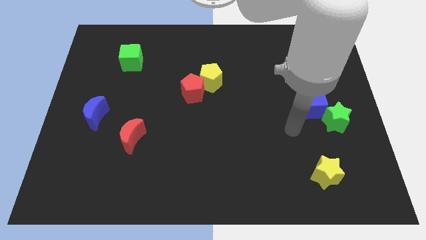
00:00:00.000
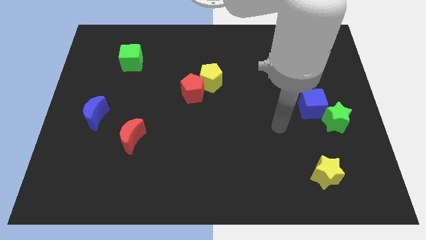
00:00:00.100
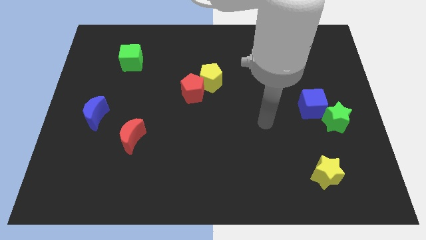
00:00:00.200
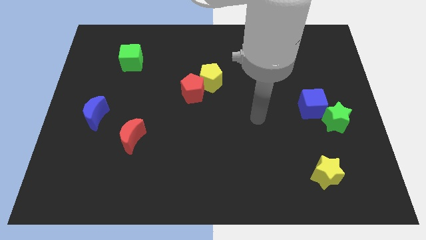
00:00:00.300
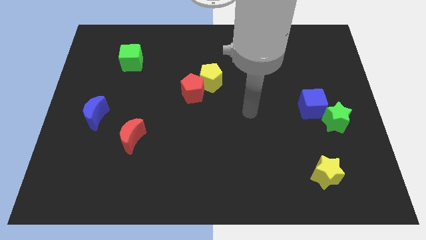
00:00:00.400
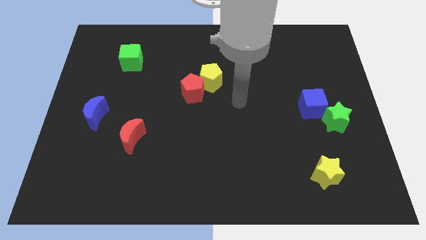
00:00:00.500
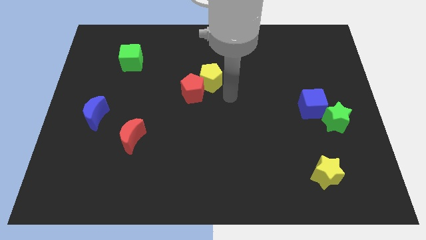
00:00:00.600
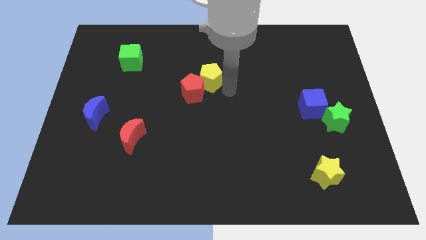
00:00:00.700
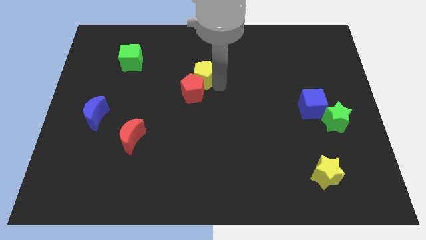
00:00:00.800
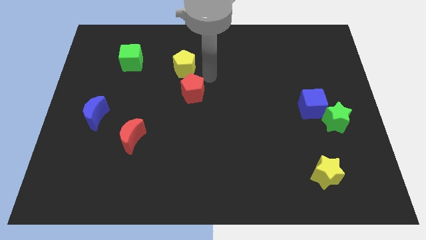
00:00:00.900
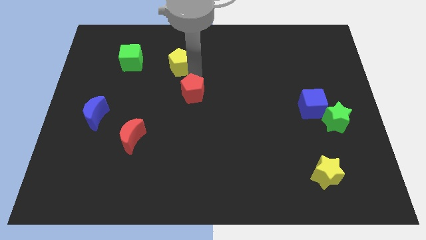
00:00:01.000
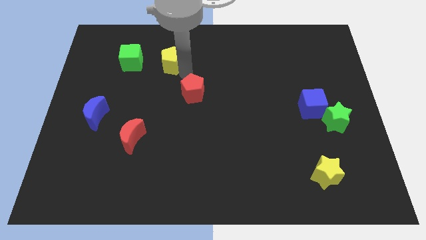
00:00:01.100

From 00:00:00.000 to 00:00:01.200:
separate the red pentagon from the yellow pentagon

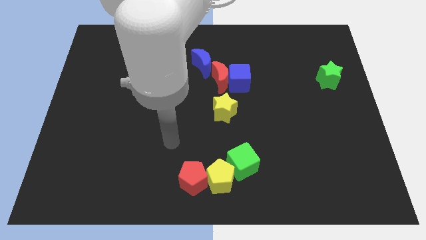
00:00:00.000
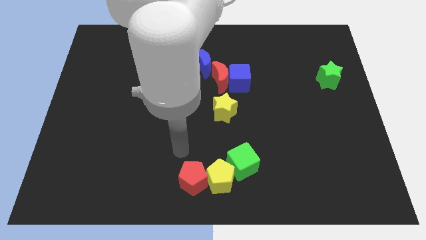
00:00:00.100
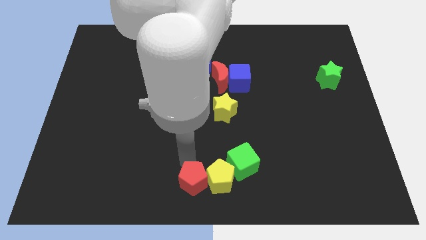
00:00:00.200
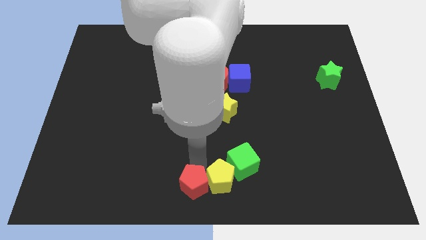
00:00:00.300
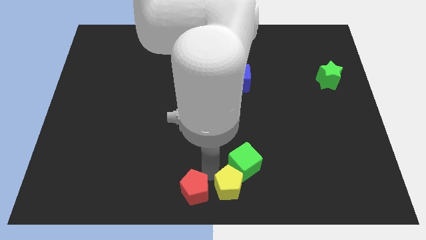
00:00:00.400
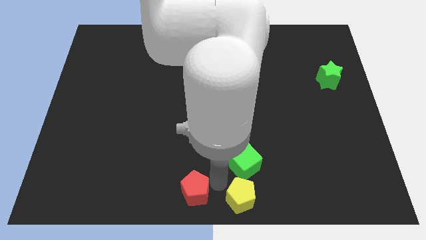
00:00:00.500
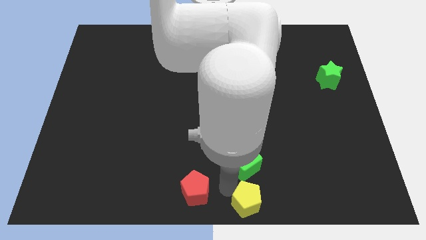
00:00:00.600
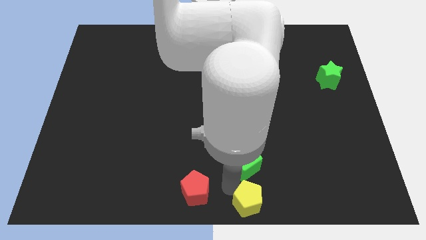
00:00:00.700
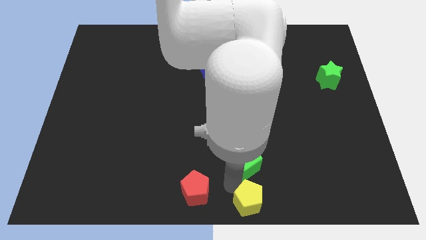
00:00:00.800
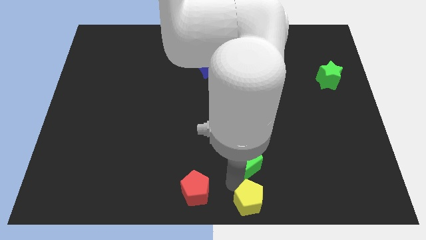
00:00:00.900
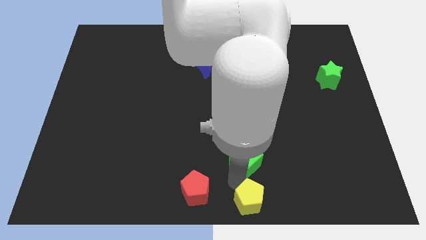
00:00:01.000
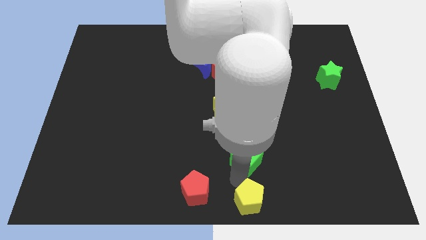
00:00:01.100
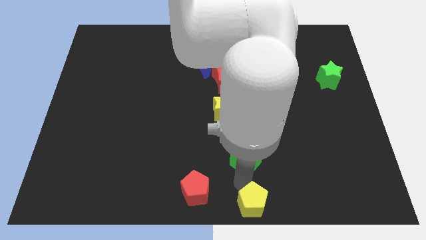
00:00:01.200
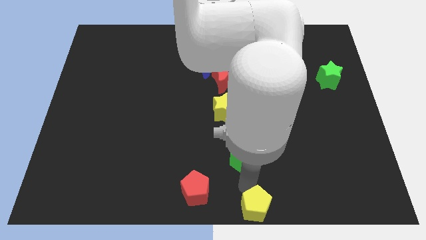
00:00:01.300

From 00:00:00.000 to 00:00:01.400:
pull the green cube apart from the yellow pentagon

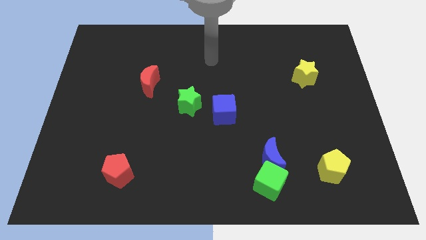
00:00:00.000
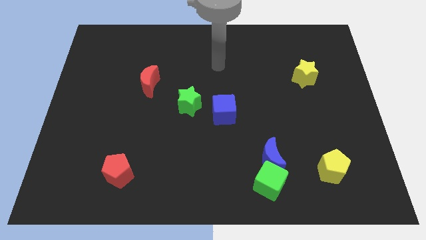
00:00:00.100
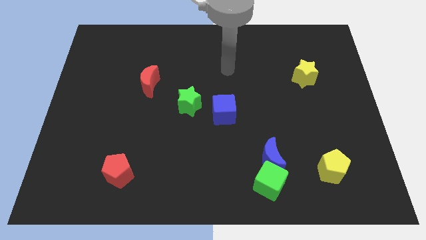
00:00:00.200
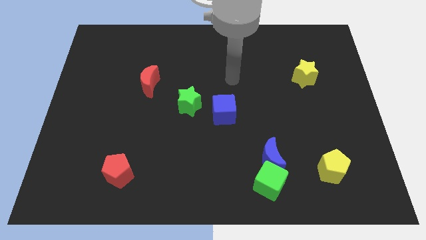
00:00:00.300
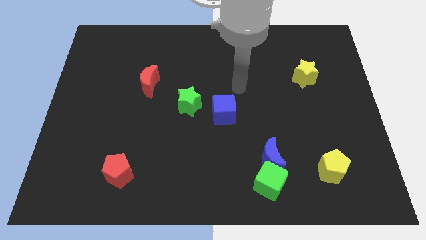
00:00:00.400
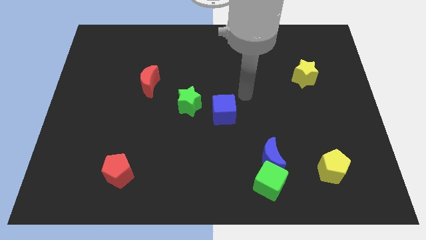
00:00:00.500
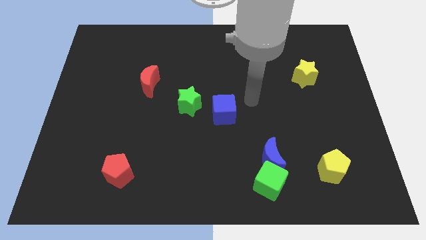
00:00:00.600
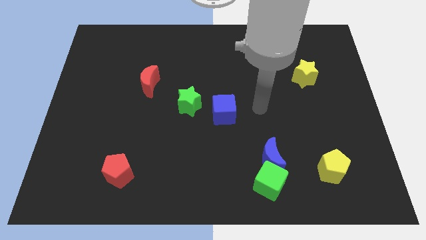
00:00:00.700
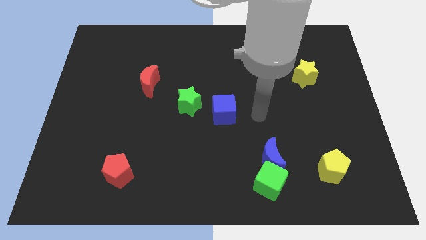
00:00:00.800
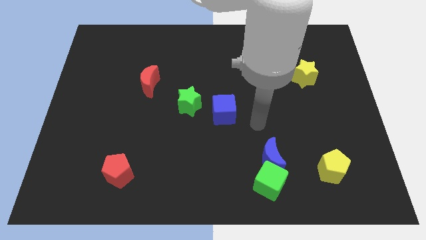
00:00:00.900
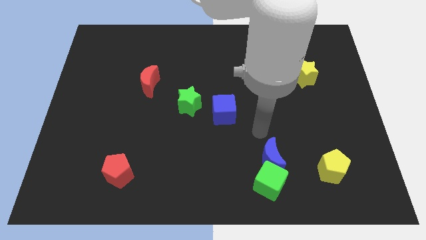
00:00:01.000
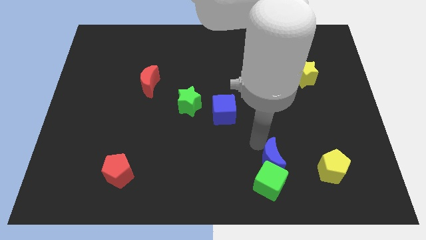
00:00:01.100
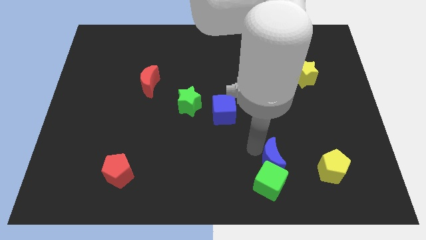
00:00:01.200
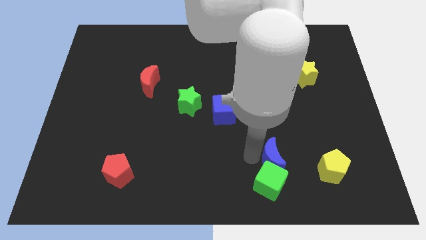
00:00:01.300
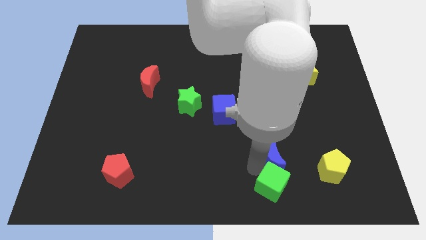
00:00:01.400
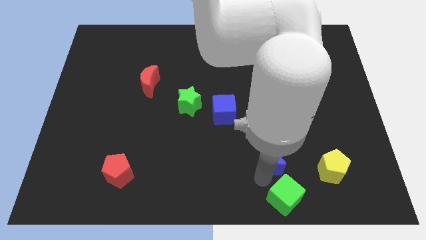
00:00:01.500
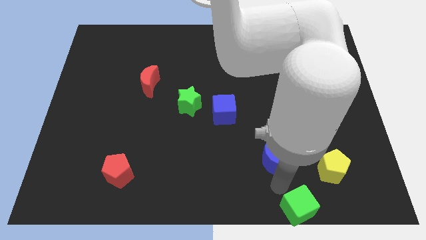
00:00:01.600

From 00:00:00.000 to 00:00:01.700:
move the blue moon away from the green cube

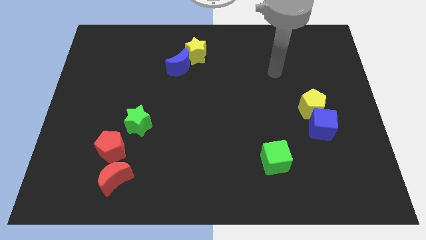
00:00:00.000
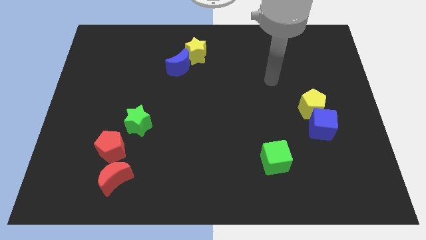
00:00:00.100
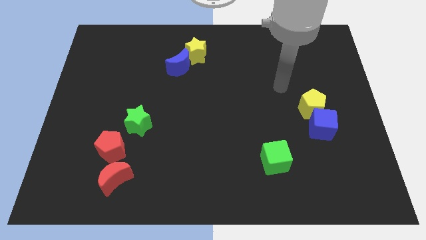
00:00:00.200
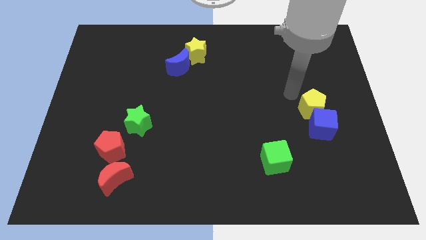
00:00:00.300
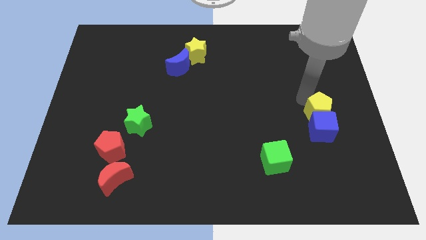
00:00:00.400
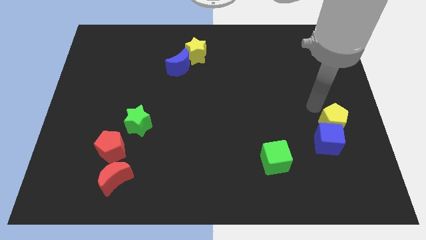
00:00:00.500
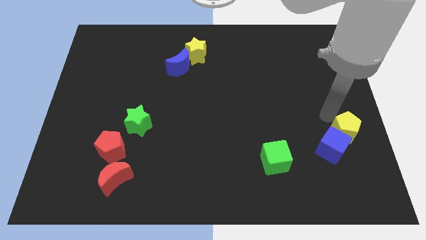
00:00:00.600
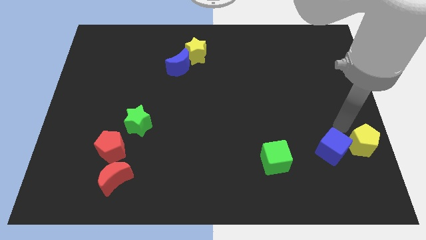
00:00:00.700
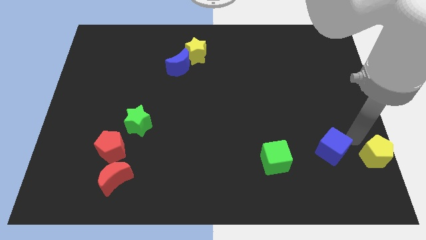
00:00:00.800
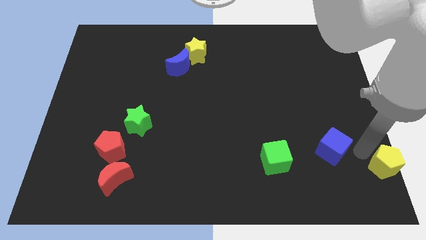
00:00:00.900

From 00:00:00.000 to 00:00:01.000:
move the blue cube away from the yellow pentagon

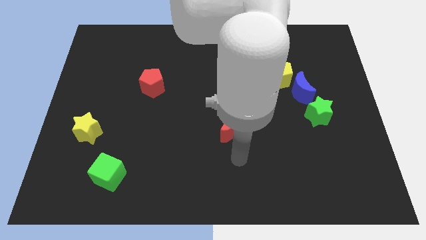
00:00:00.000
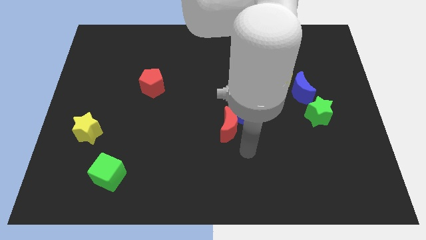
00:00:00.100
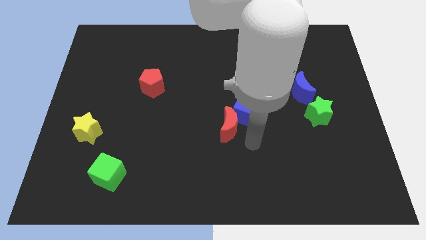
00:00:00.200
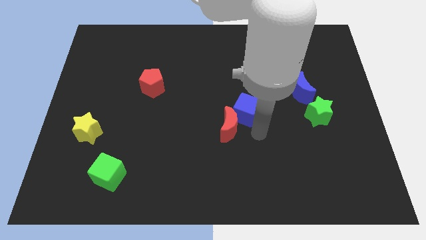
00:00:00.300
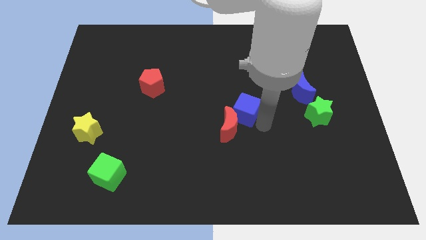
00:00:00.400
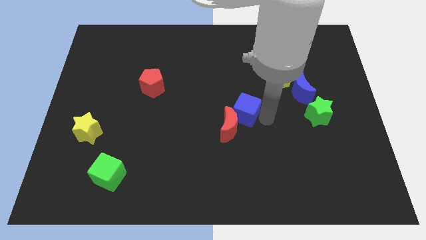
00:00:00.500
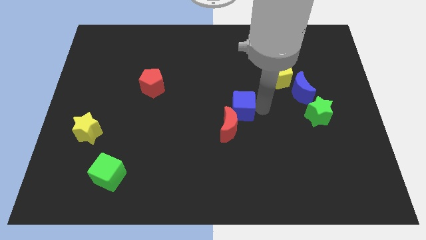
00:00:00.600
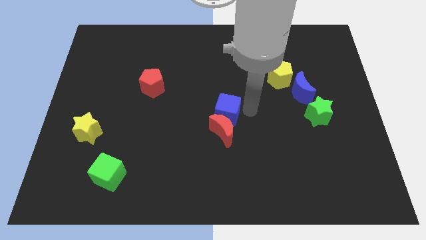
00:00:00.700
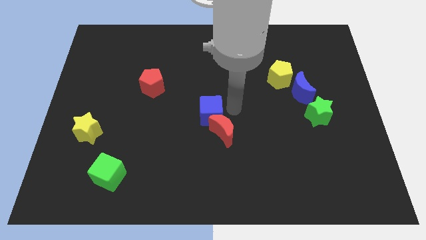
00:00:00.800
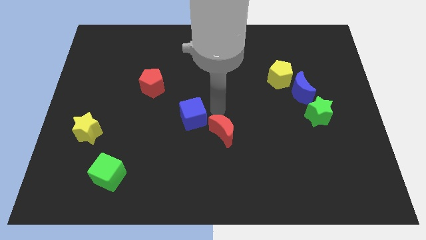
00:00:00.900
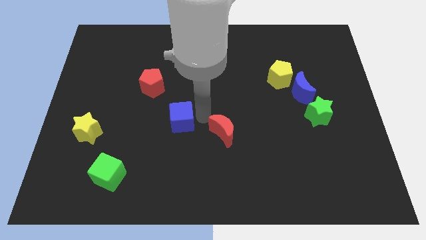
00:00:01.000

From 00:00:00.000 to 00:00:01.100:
pull the red moon apart from the blue cube

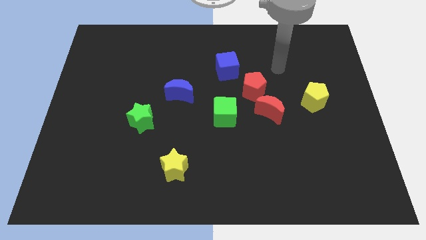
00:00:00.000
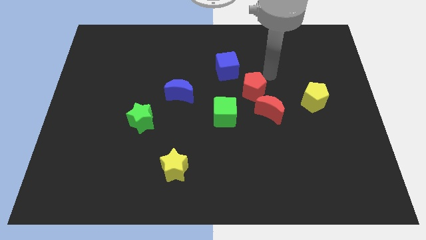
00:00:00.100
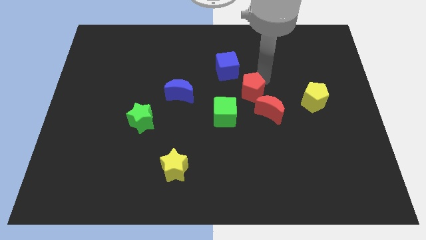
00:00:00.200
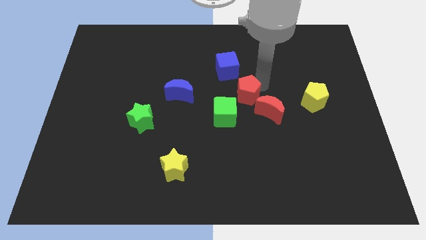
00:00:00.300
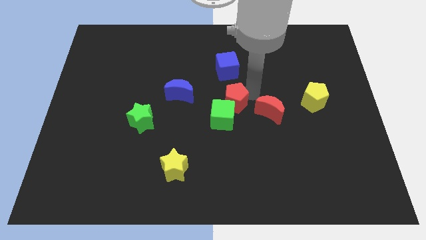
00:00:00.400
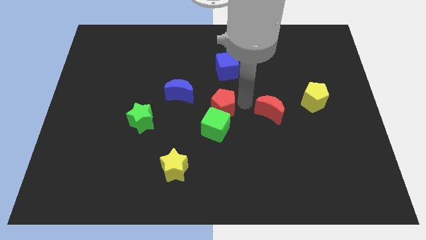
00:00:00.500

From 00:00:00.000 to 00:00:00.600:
pull the red moon apart from the red pentagon

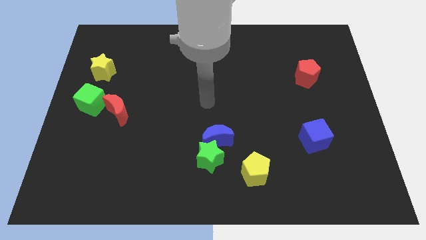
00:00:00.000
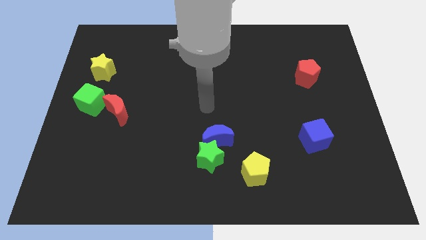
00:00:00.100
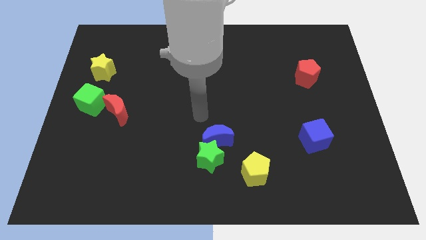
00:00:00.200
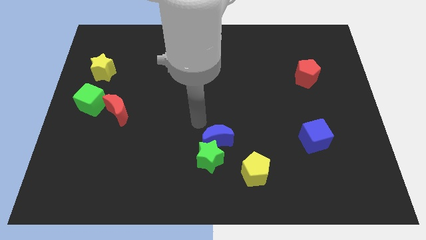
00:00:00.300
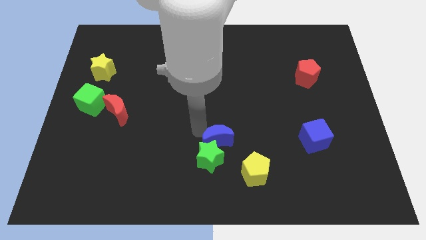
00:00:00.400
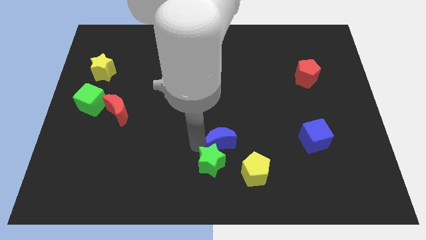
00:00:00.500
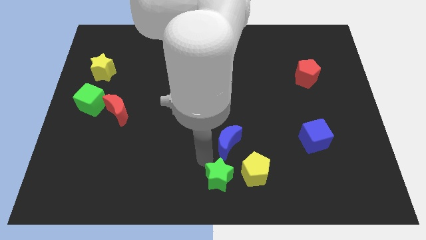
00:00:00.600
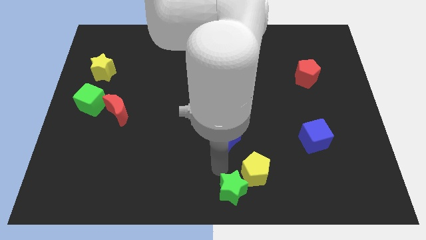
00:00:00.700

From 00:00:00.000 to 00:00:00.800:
pull the blue moon apart from the green star

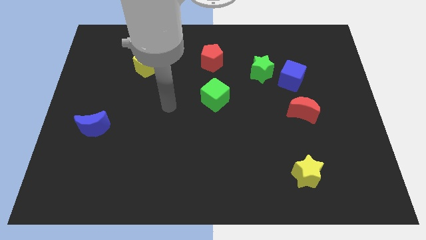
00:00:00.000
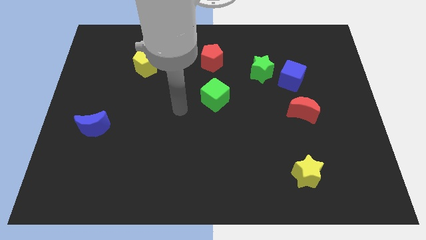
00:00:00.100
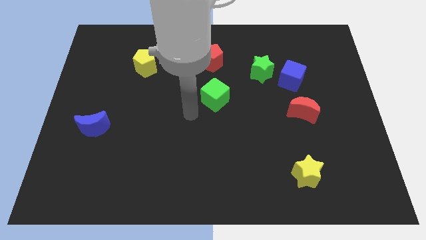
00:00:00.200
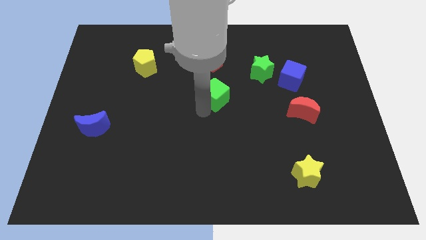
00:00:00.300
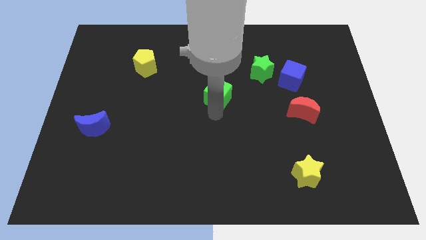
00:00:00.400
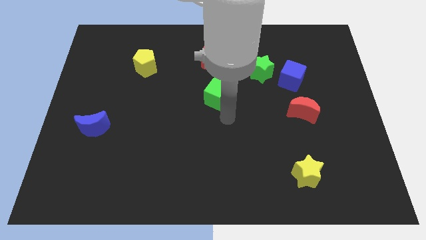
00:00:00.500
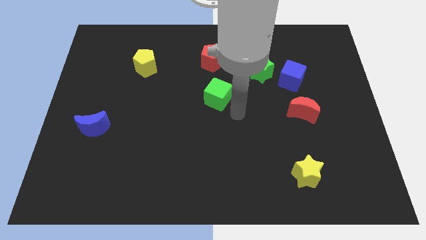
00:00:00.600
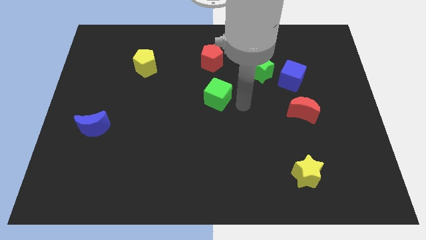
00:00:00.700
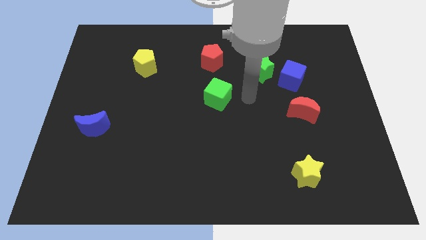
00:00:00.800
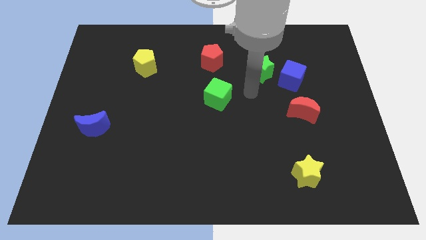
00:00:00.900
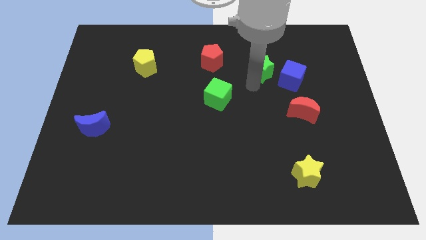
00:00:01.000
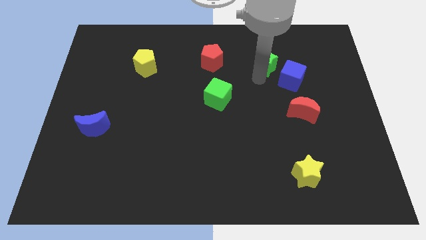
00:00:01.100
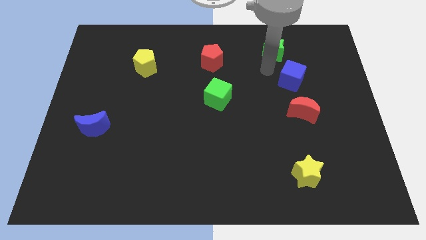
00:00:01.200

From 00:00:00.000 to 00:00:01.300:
move the blue cube away from the green star

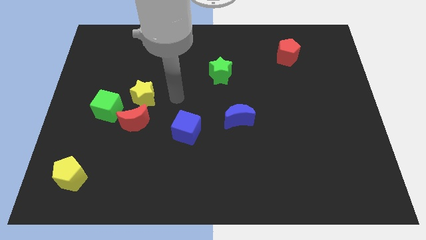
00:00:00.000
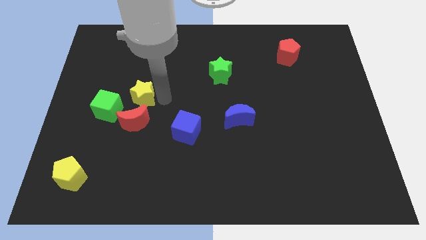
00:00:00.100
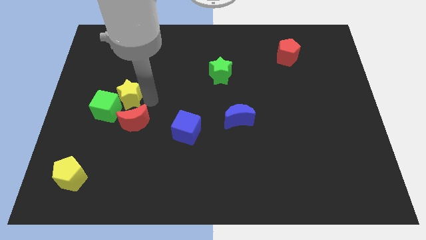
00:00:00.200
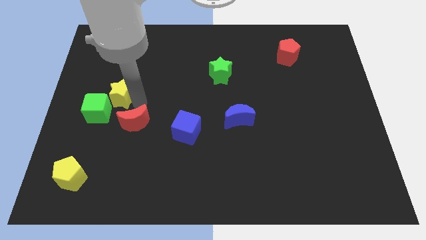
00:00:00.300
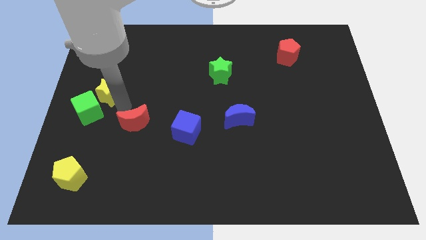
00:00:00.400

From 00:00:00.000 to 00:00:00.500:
move the red moon away from the yellow star and green cube
